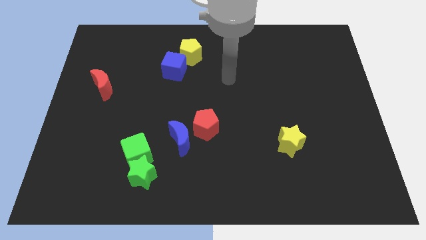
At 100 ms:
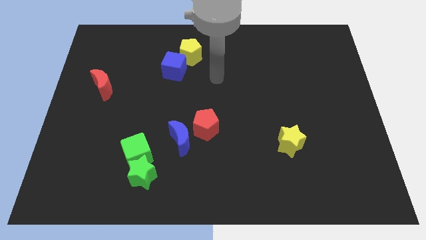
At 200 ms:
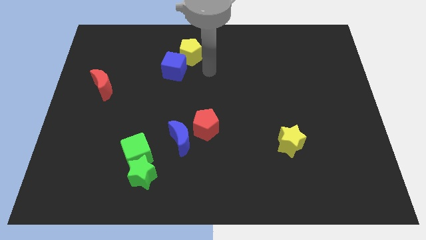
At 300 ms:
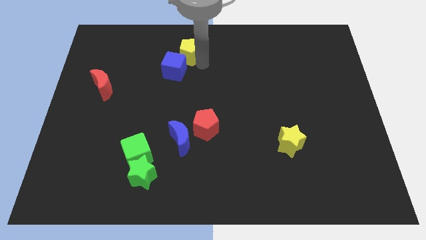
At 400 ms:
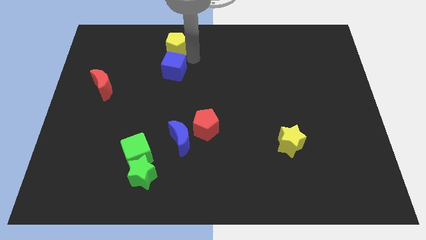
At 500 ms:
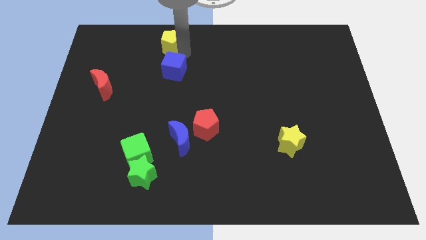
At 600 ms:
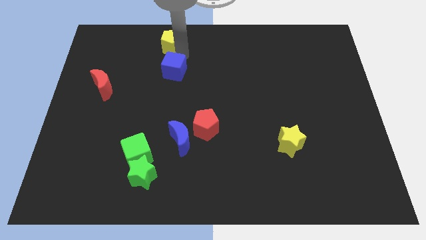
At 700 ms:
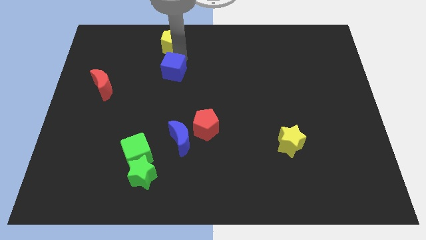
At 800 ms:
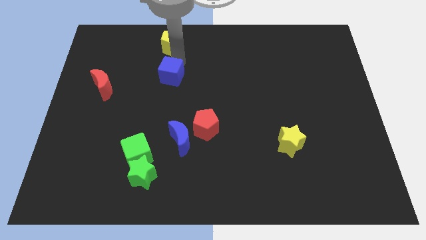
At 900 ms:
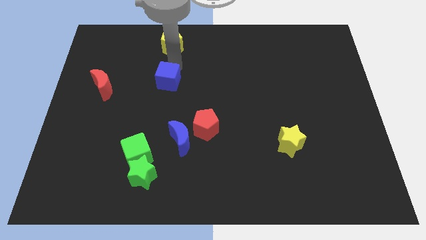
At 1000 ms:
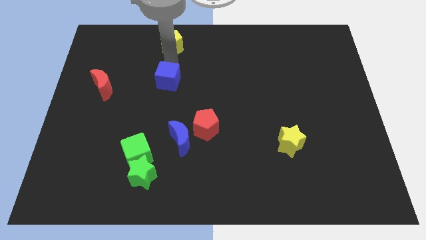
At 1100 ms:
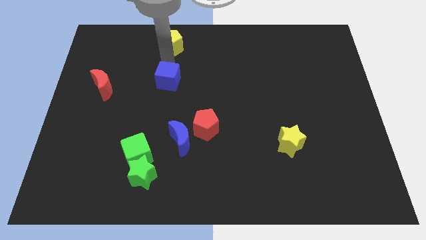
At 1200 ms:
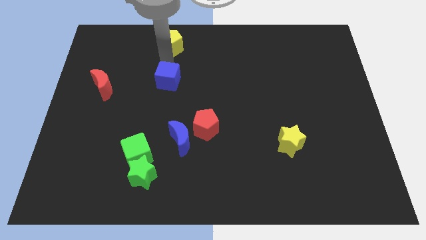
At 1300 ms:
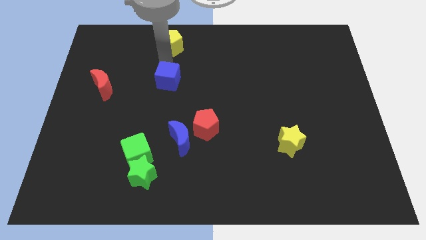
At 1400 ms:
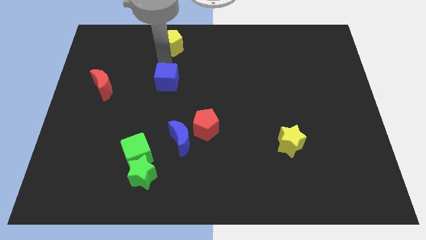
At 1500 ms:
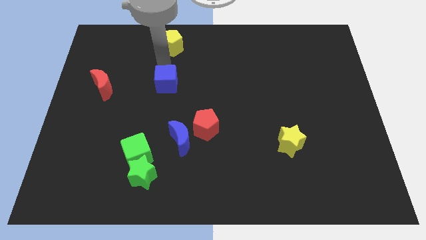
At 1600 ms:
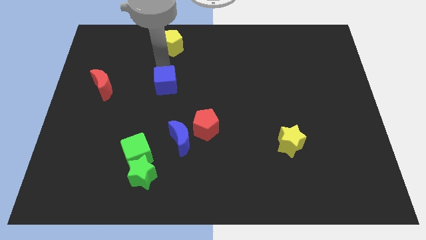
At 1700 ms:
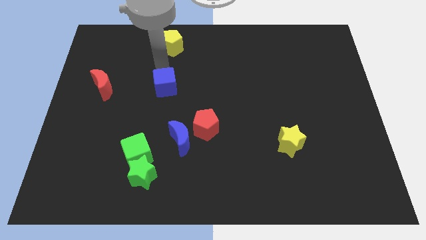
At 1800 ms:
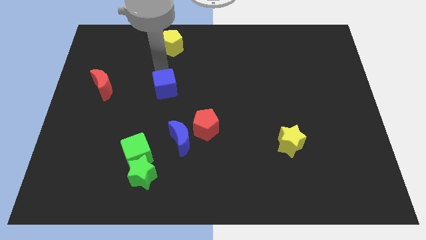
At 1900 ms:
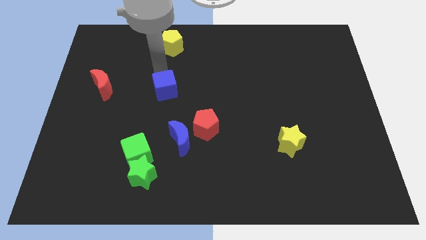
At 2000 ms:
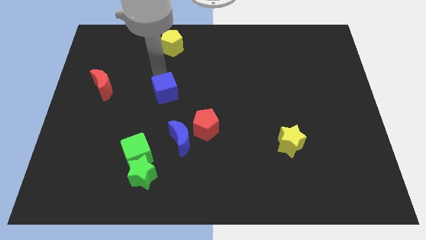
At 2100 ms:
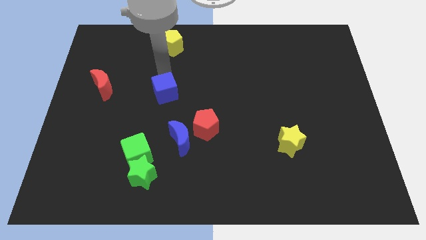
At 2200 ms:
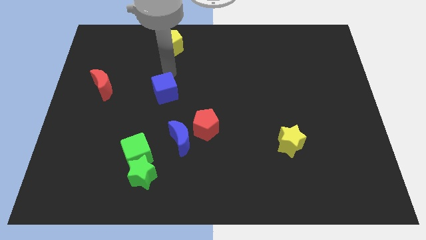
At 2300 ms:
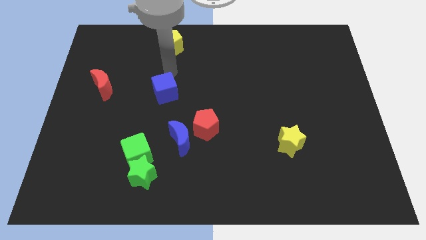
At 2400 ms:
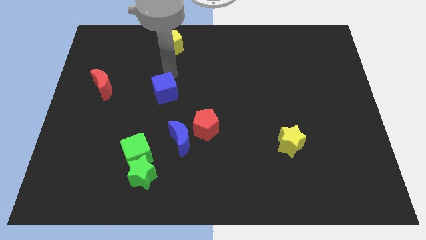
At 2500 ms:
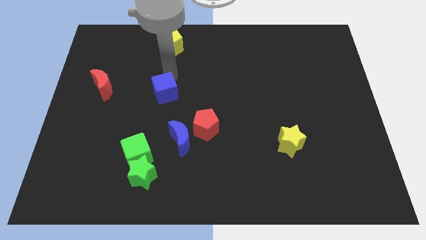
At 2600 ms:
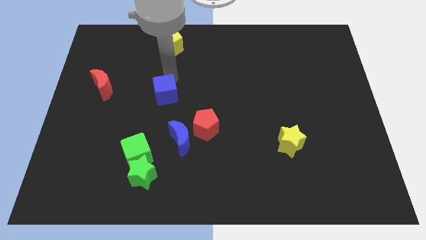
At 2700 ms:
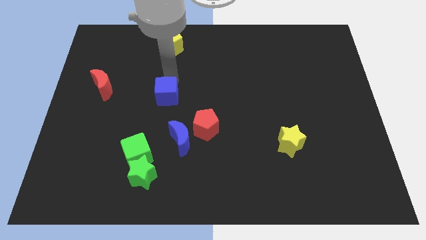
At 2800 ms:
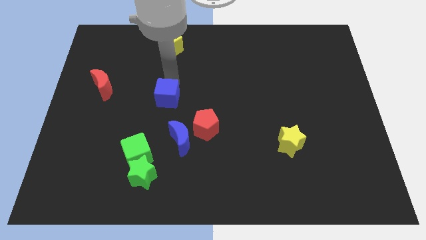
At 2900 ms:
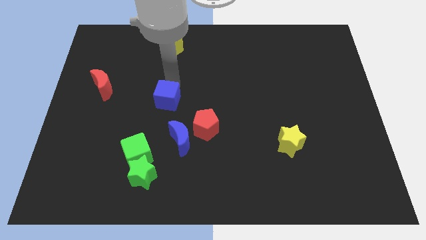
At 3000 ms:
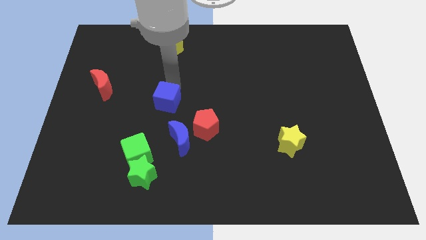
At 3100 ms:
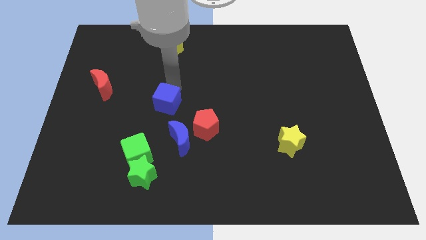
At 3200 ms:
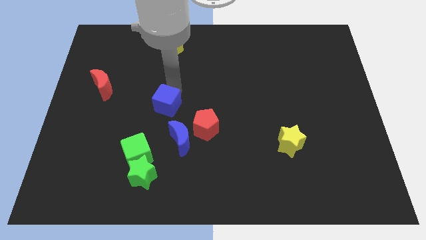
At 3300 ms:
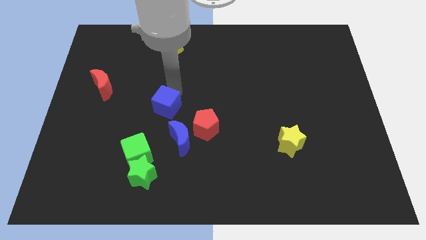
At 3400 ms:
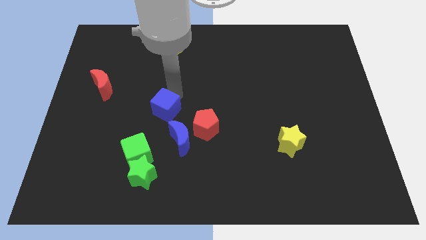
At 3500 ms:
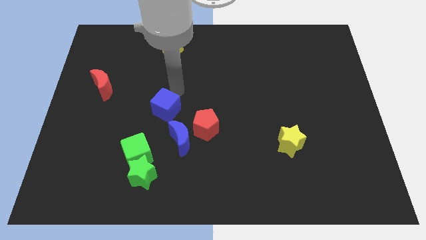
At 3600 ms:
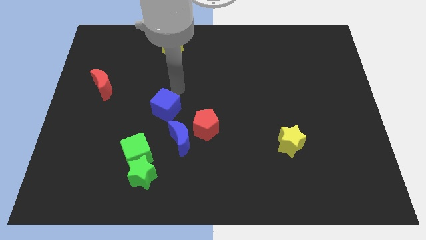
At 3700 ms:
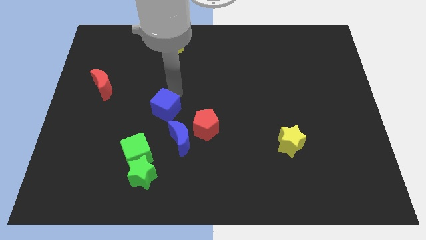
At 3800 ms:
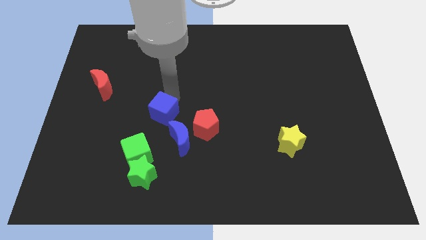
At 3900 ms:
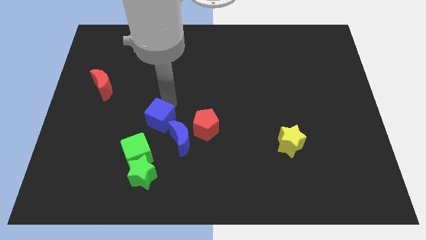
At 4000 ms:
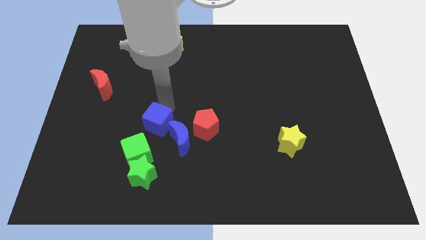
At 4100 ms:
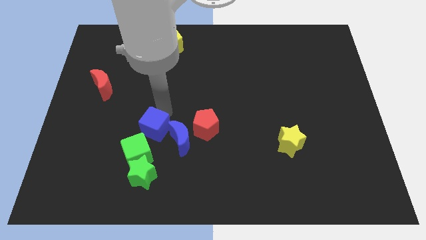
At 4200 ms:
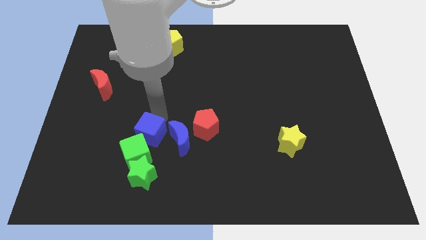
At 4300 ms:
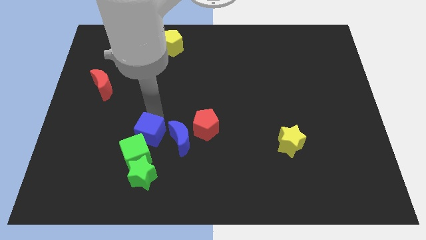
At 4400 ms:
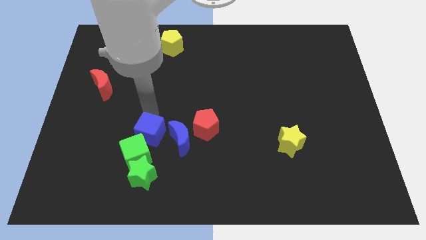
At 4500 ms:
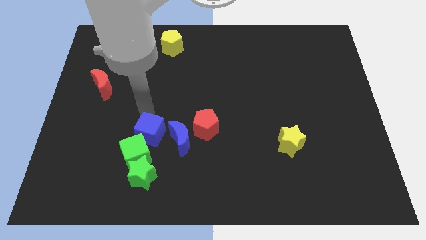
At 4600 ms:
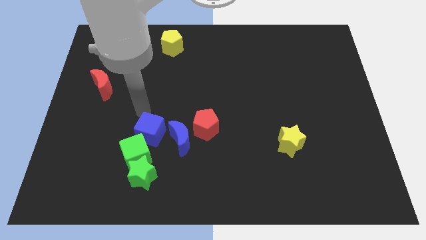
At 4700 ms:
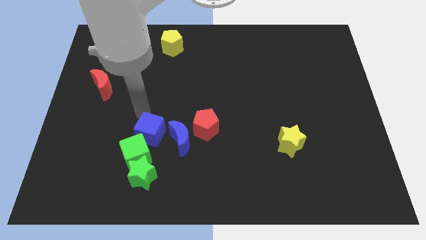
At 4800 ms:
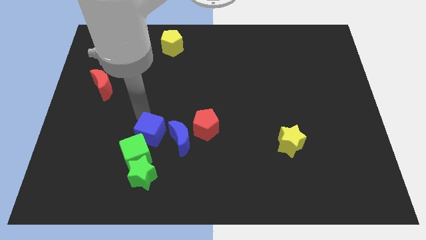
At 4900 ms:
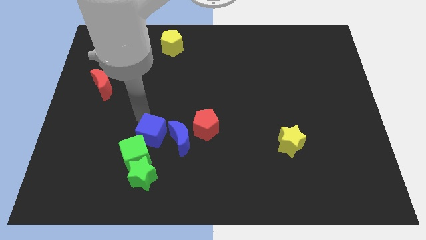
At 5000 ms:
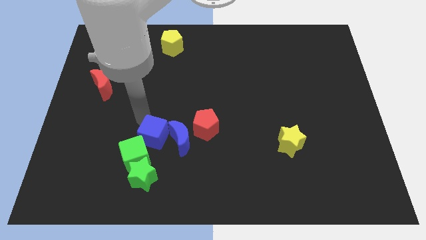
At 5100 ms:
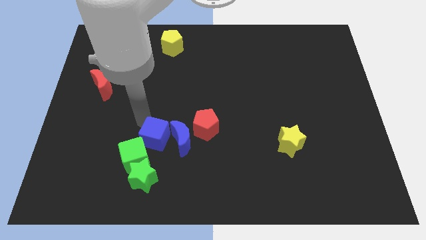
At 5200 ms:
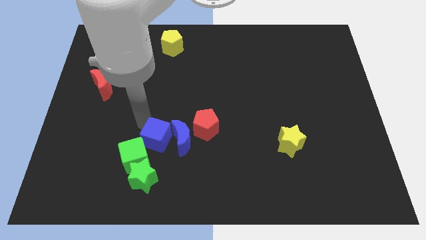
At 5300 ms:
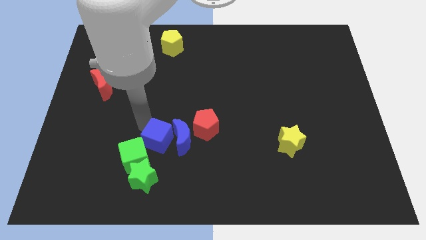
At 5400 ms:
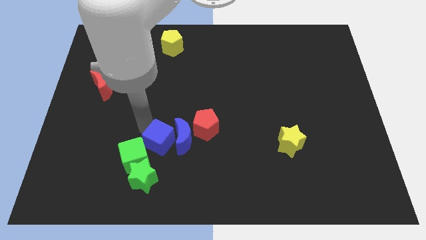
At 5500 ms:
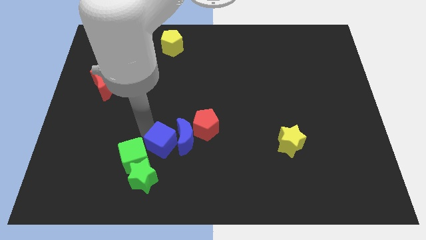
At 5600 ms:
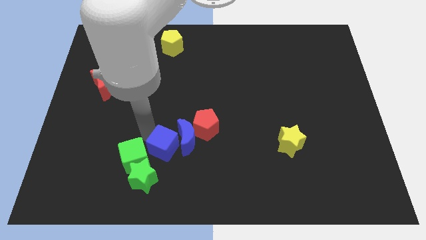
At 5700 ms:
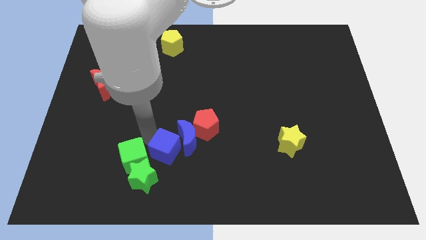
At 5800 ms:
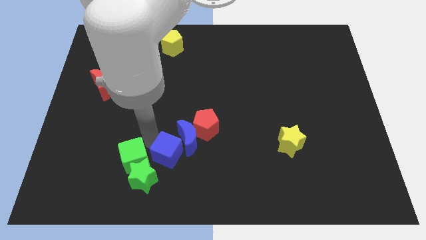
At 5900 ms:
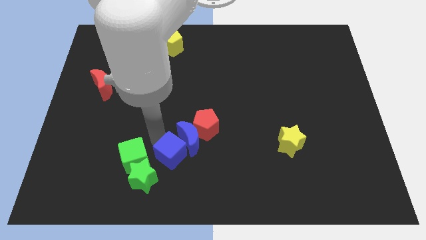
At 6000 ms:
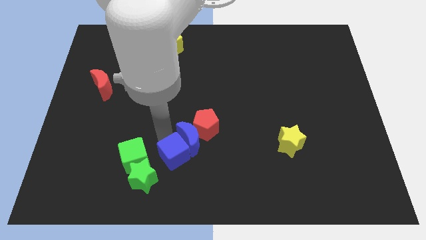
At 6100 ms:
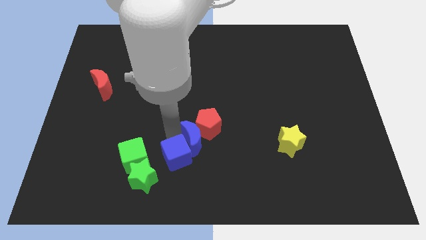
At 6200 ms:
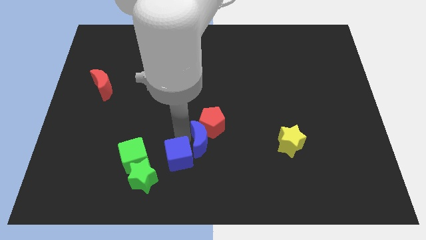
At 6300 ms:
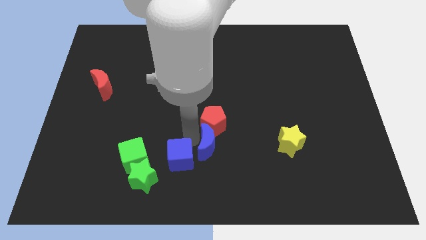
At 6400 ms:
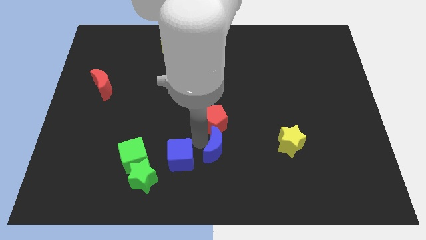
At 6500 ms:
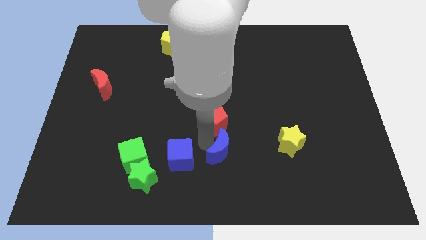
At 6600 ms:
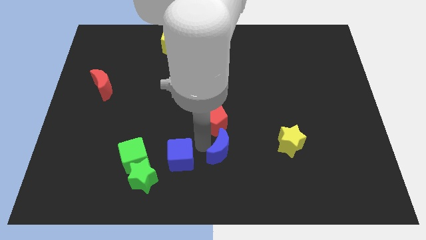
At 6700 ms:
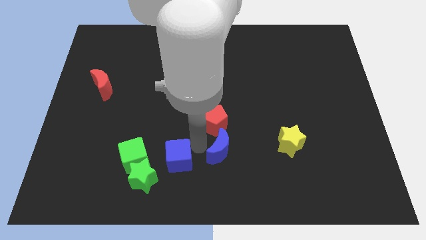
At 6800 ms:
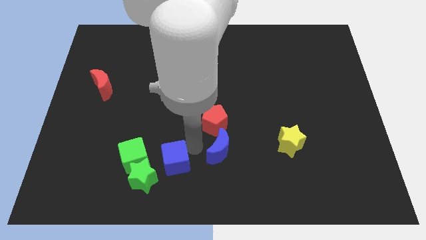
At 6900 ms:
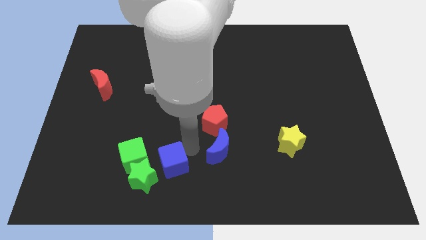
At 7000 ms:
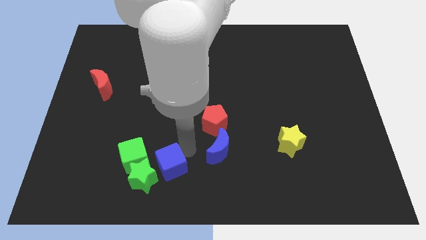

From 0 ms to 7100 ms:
push the blue cube to the green star

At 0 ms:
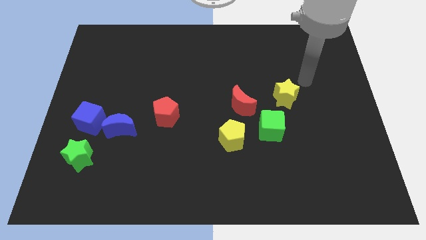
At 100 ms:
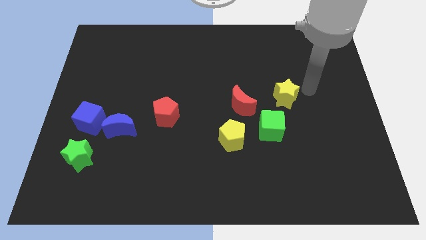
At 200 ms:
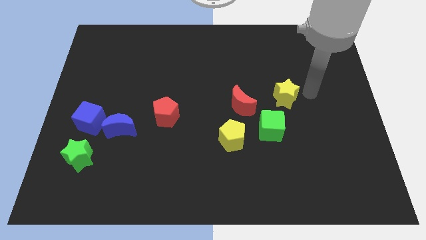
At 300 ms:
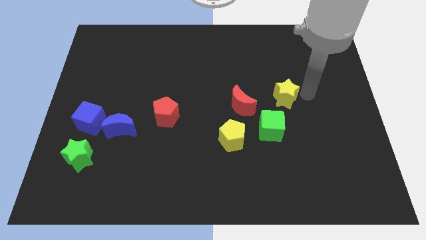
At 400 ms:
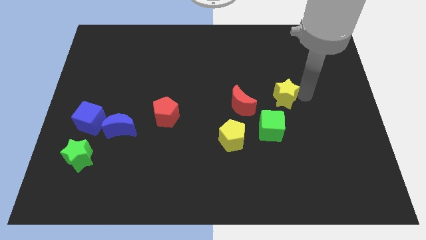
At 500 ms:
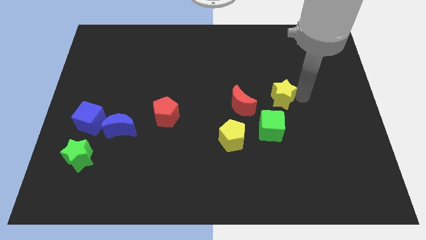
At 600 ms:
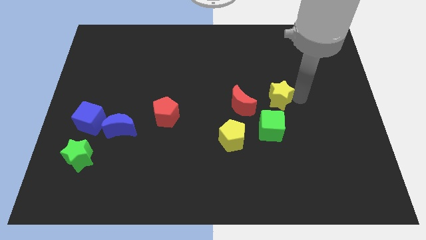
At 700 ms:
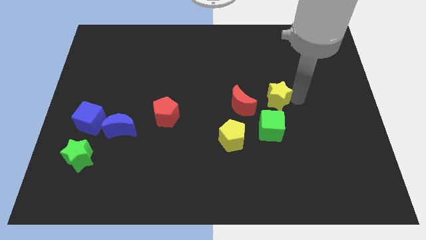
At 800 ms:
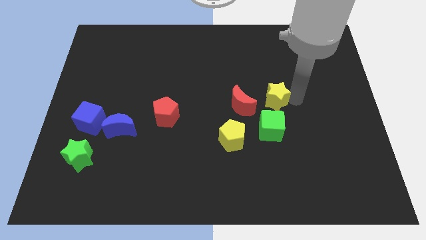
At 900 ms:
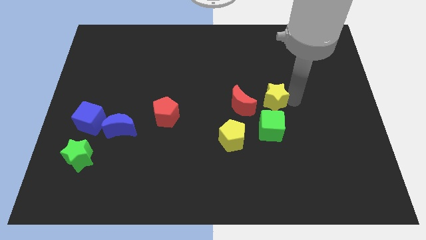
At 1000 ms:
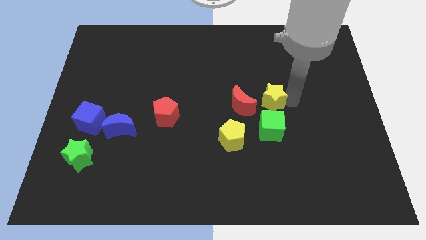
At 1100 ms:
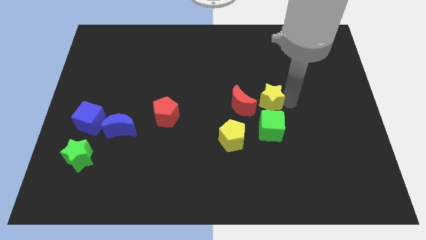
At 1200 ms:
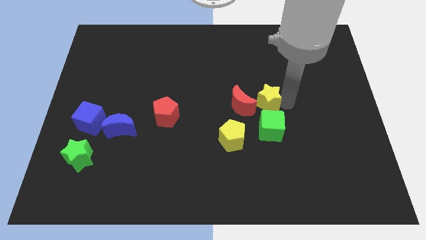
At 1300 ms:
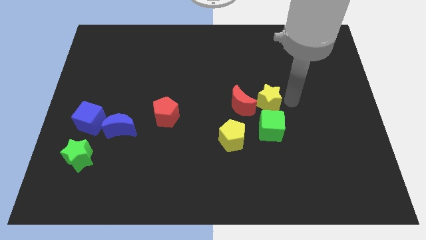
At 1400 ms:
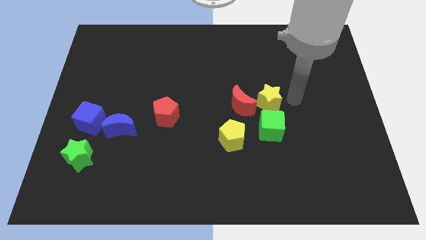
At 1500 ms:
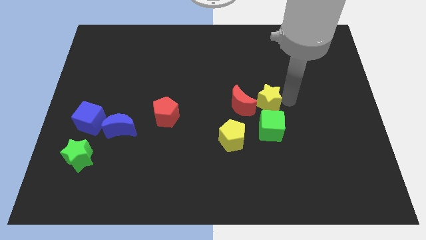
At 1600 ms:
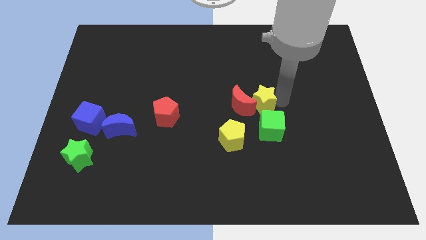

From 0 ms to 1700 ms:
slide the yellow star towards the red moon
